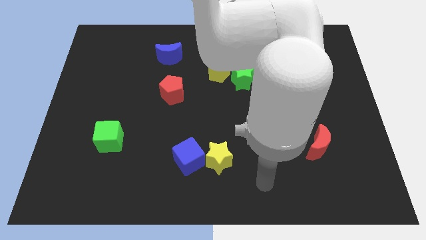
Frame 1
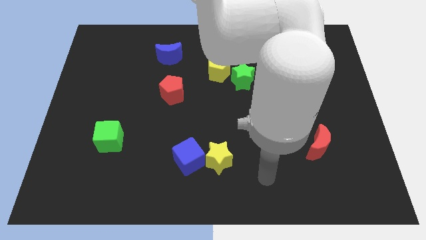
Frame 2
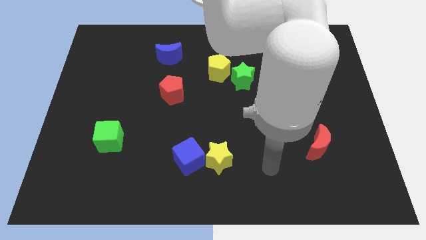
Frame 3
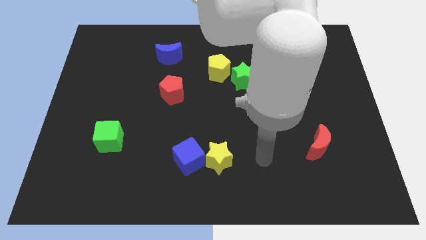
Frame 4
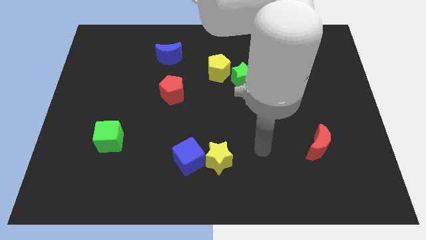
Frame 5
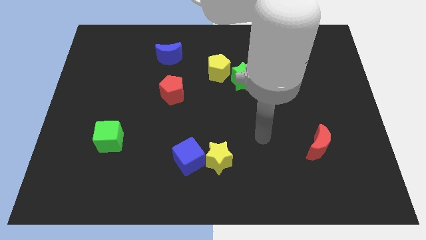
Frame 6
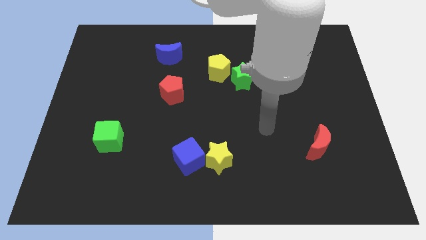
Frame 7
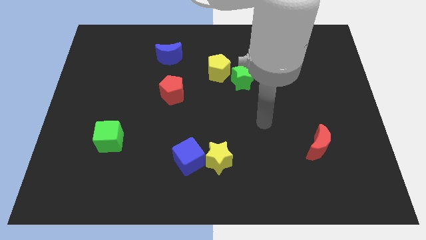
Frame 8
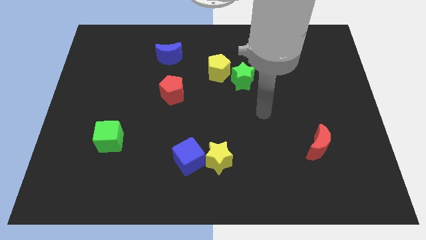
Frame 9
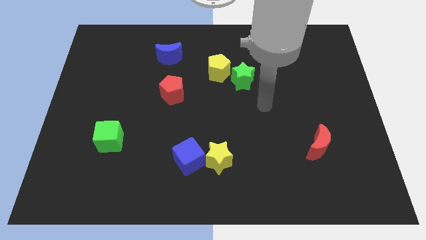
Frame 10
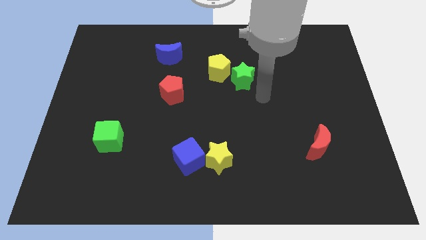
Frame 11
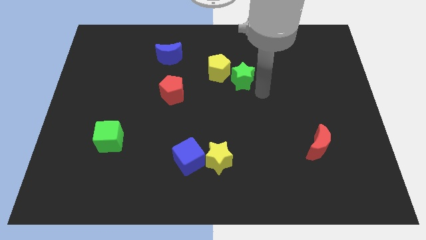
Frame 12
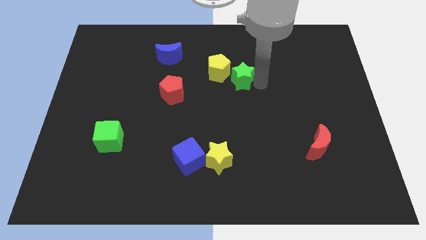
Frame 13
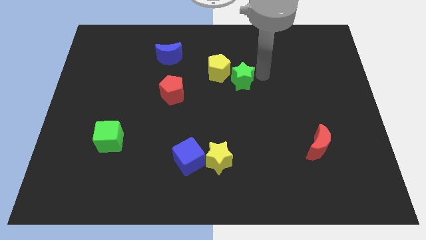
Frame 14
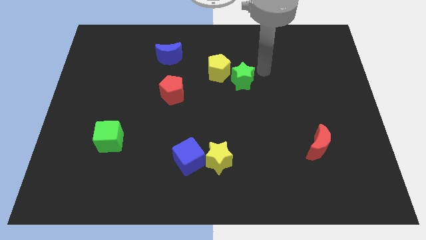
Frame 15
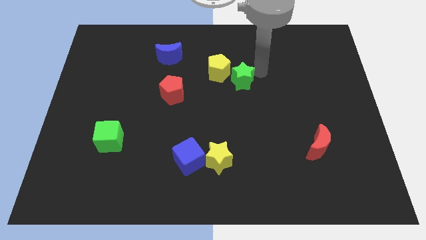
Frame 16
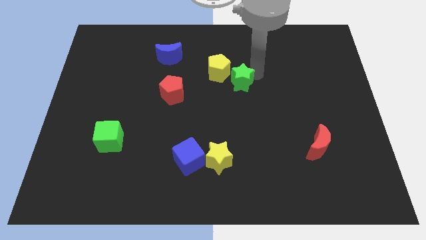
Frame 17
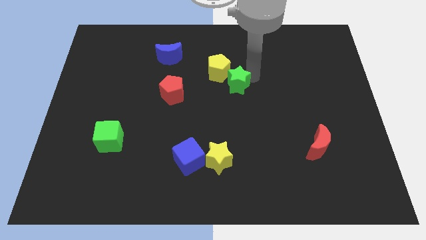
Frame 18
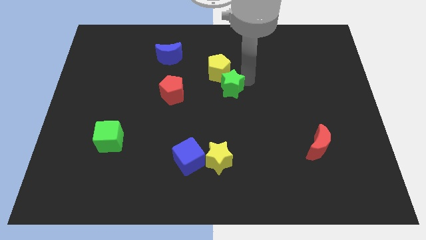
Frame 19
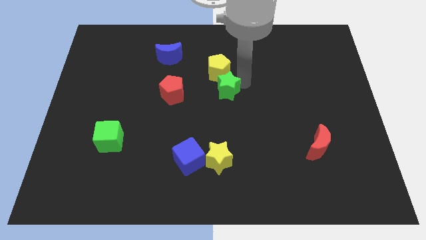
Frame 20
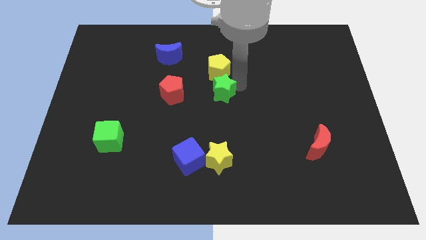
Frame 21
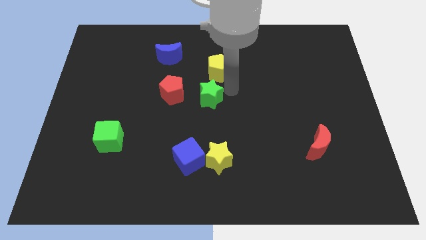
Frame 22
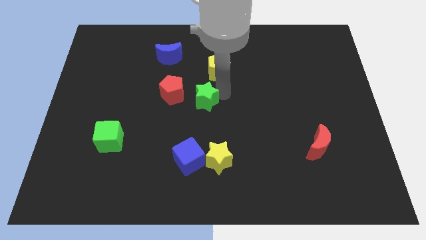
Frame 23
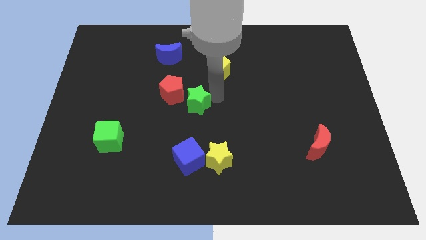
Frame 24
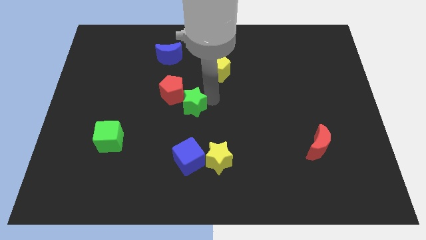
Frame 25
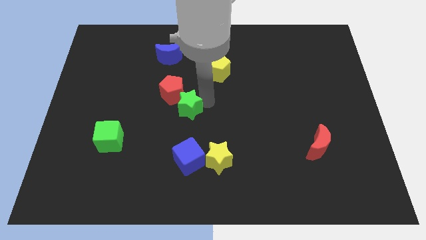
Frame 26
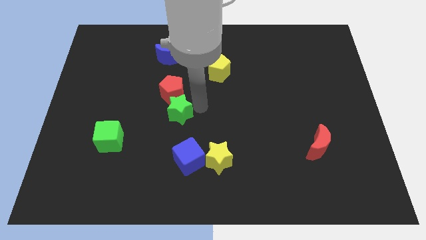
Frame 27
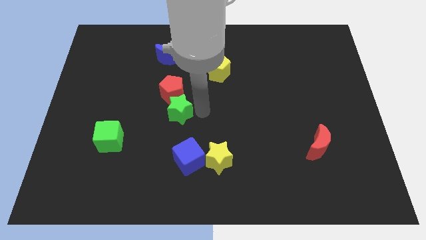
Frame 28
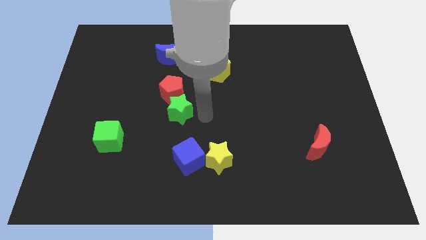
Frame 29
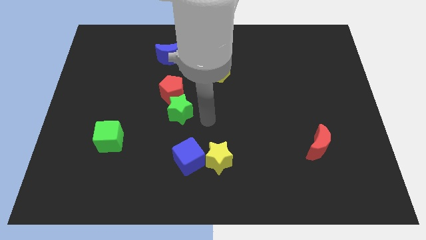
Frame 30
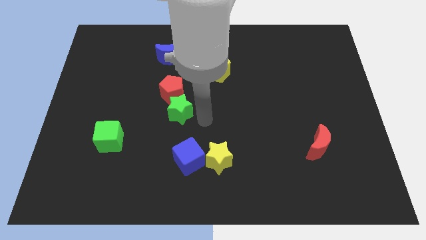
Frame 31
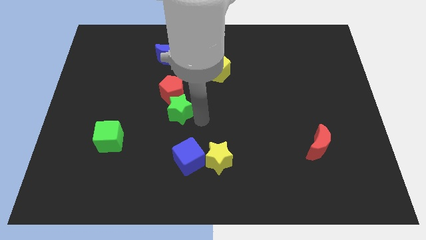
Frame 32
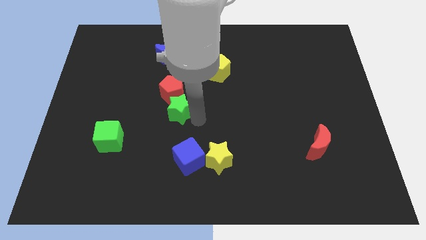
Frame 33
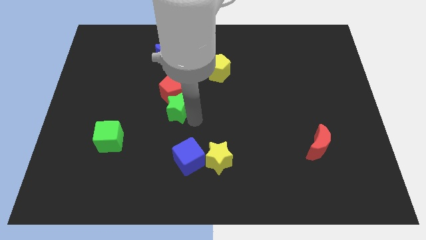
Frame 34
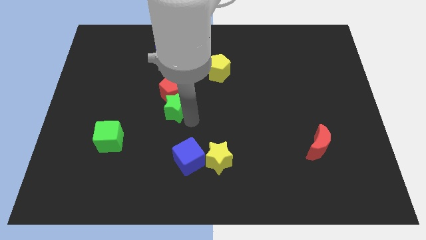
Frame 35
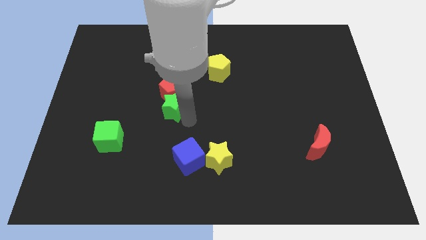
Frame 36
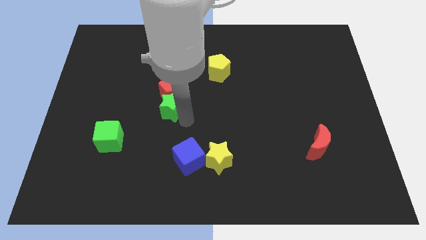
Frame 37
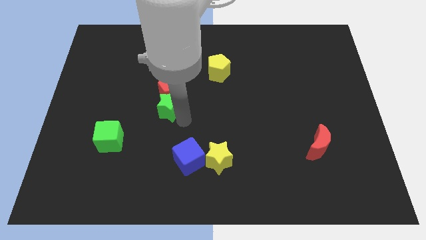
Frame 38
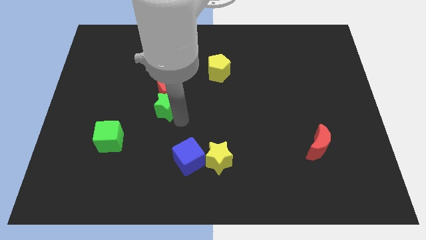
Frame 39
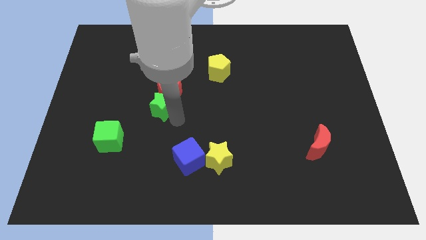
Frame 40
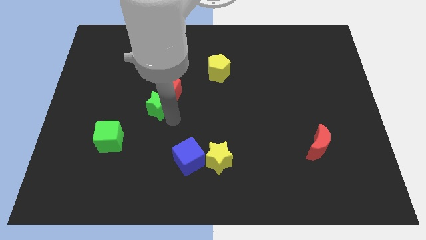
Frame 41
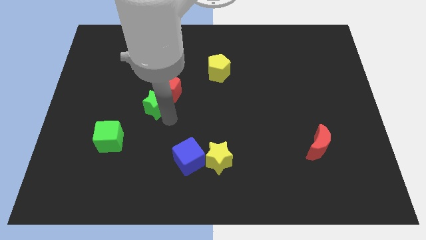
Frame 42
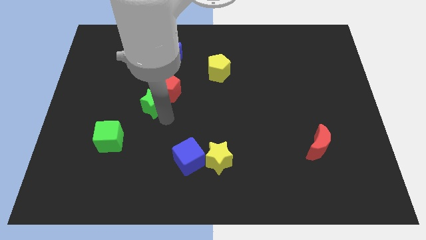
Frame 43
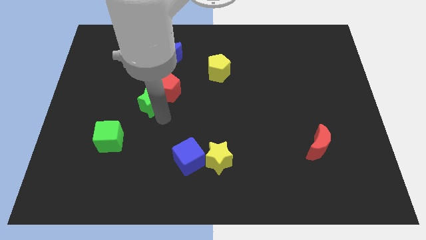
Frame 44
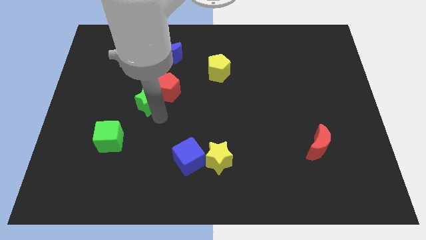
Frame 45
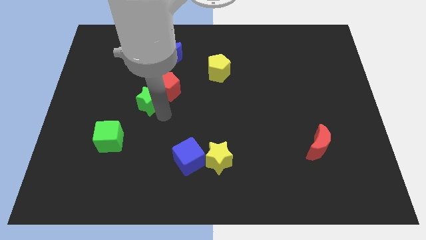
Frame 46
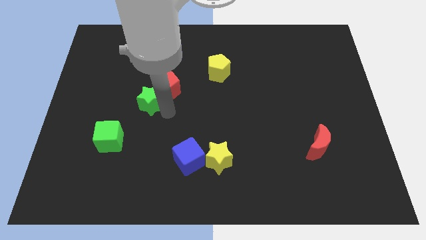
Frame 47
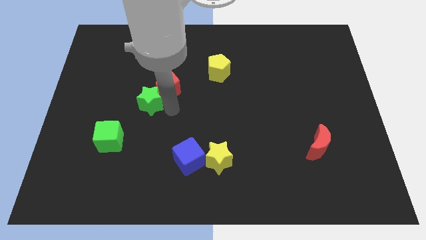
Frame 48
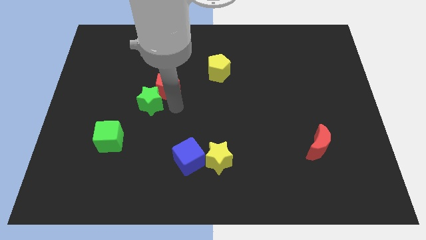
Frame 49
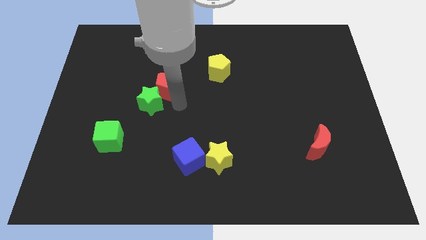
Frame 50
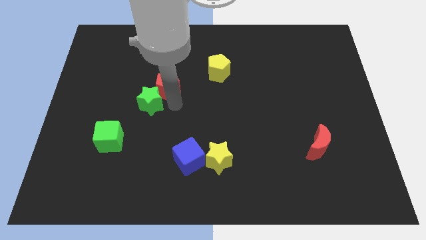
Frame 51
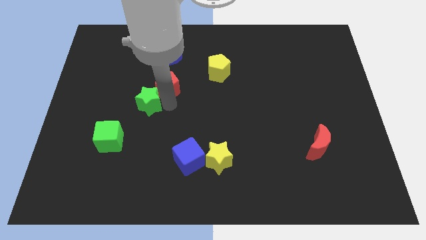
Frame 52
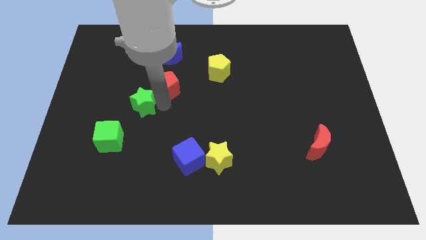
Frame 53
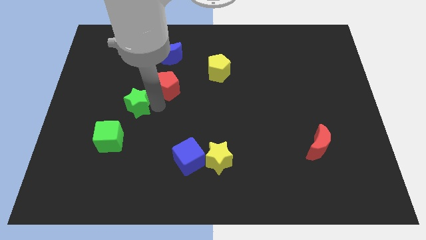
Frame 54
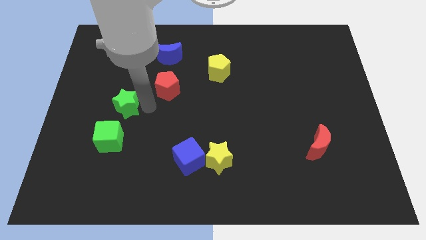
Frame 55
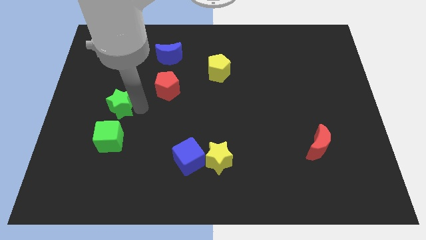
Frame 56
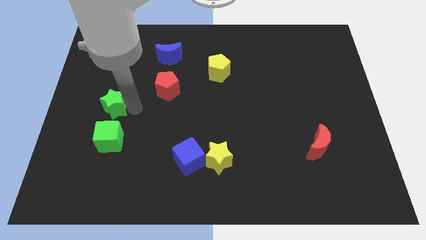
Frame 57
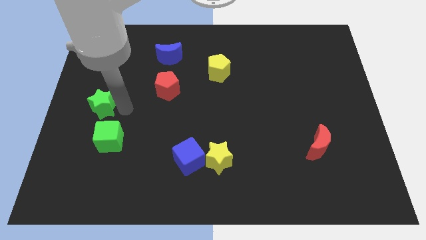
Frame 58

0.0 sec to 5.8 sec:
put the green star to the left side of the board
